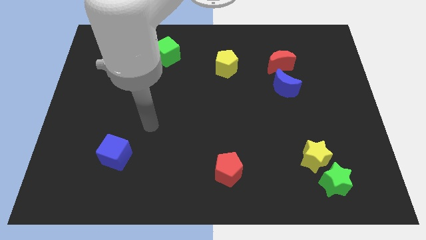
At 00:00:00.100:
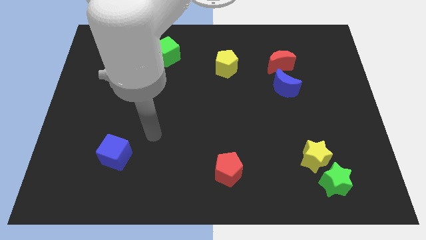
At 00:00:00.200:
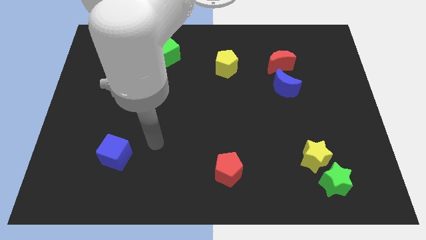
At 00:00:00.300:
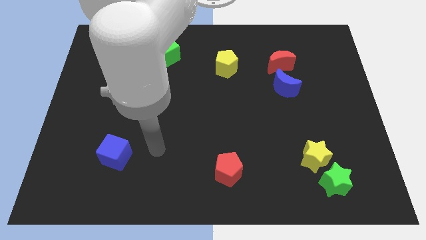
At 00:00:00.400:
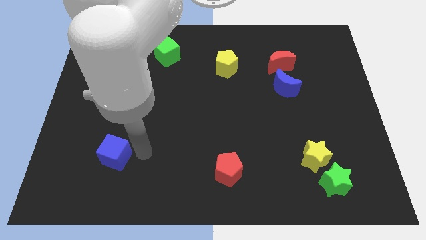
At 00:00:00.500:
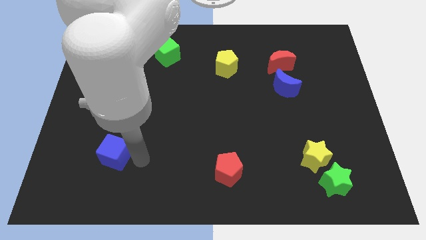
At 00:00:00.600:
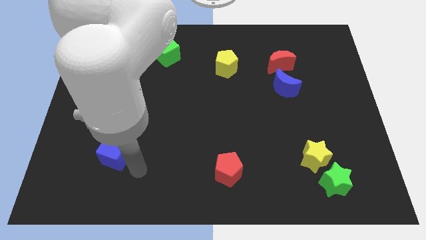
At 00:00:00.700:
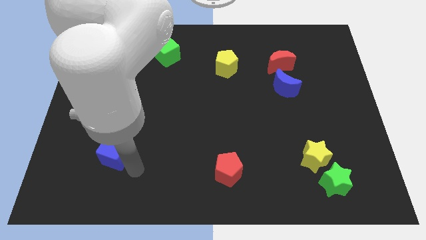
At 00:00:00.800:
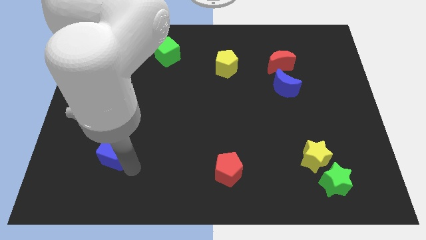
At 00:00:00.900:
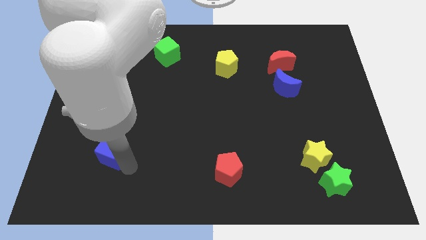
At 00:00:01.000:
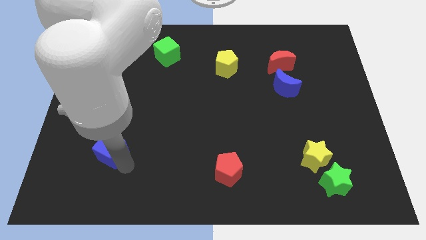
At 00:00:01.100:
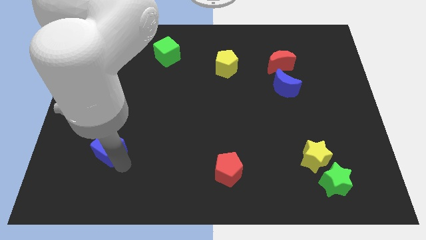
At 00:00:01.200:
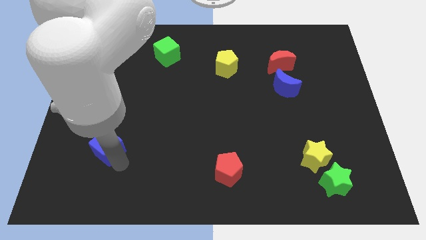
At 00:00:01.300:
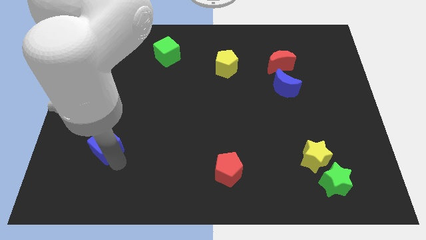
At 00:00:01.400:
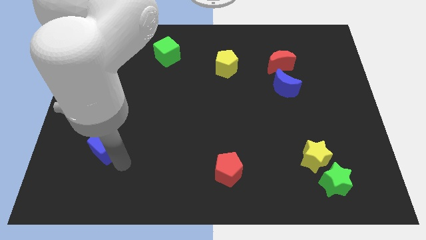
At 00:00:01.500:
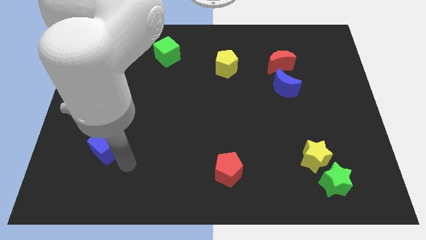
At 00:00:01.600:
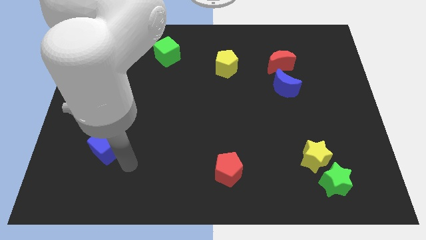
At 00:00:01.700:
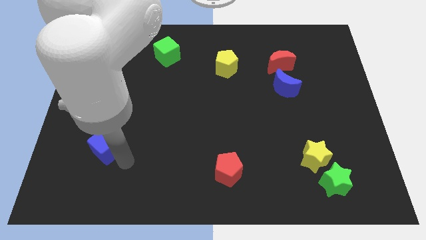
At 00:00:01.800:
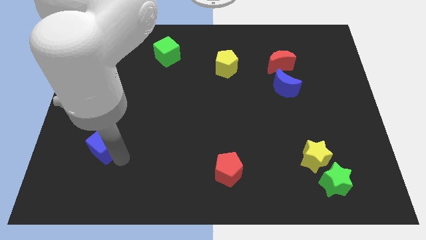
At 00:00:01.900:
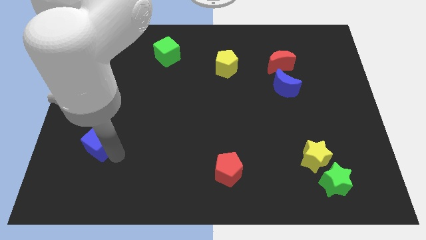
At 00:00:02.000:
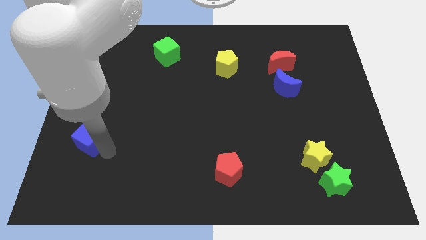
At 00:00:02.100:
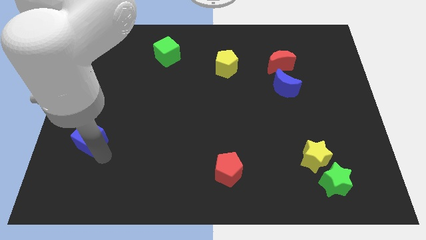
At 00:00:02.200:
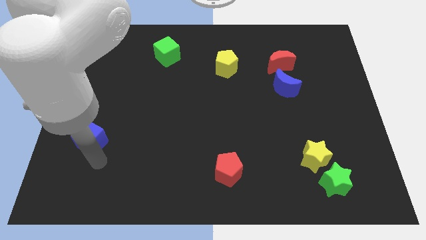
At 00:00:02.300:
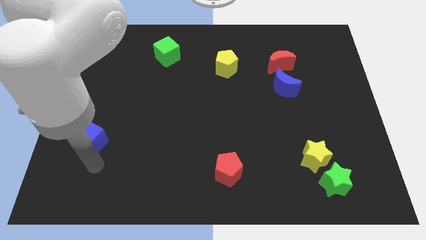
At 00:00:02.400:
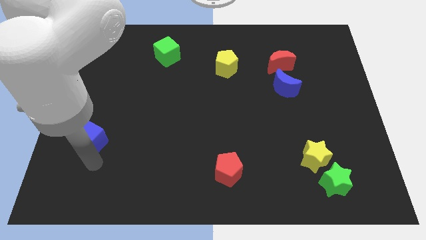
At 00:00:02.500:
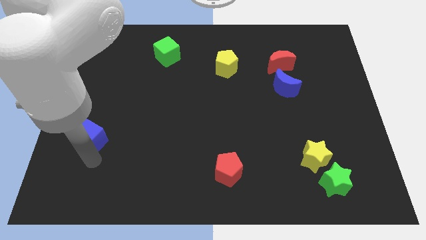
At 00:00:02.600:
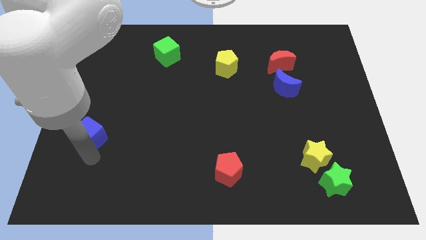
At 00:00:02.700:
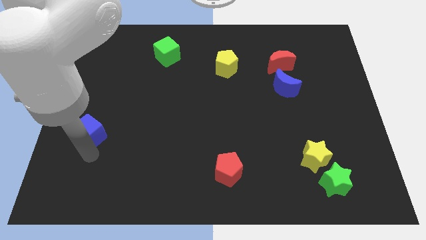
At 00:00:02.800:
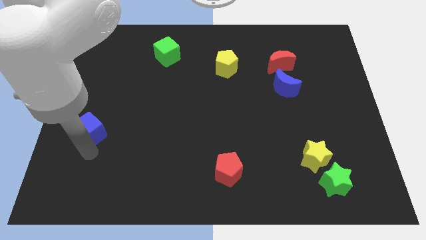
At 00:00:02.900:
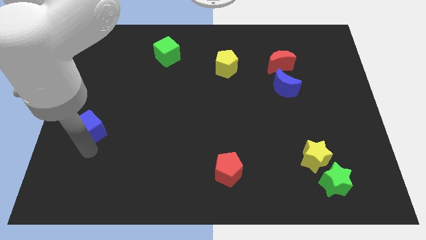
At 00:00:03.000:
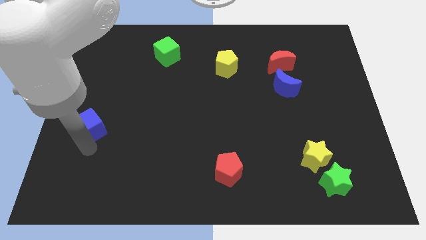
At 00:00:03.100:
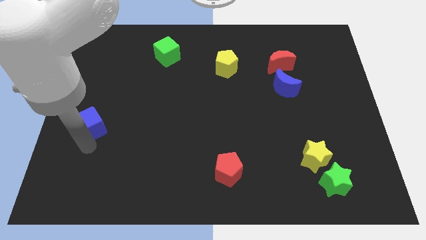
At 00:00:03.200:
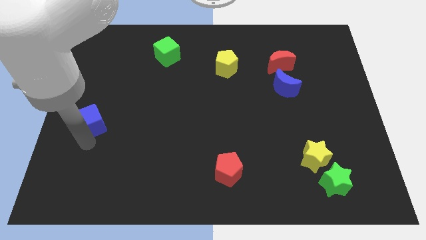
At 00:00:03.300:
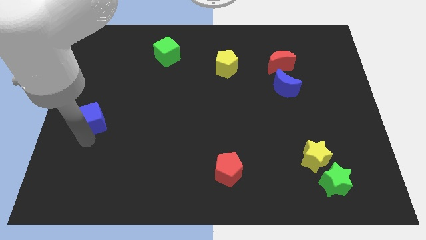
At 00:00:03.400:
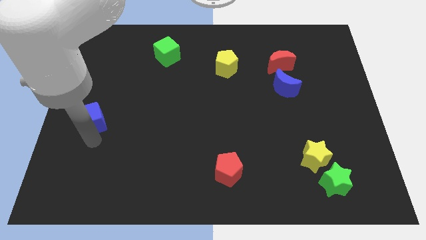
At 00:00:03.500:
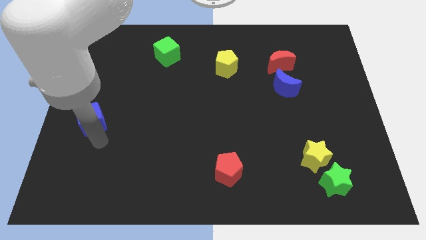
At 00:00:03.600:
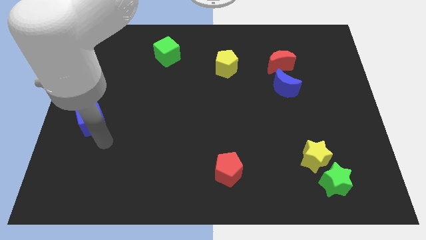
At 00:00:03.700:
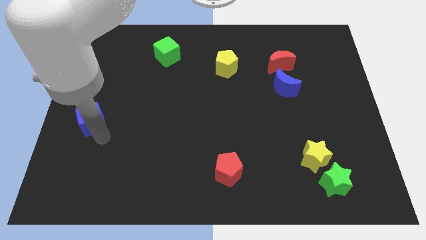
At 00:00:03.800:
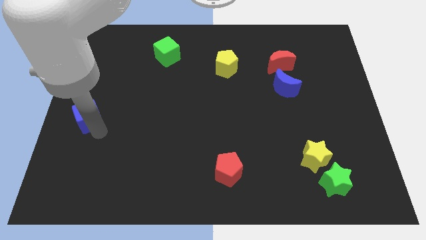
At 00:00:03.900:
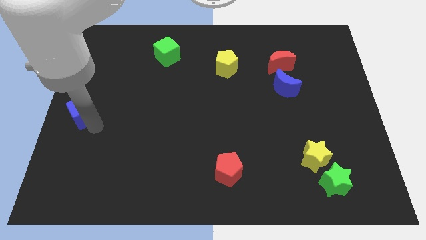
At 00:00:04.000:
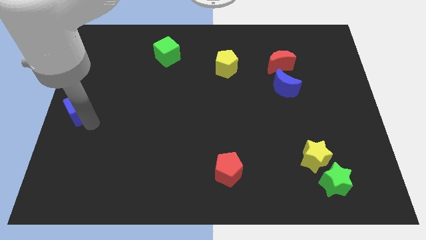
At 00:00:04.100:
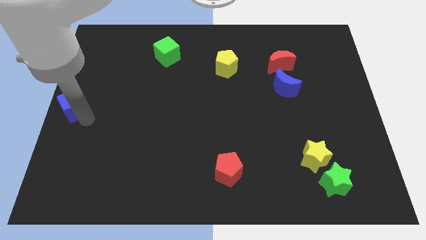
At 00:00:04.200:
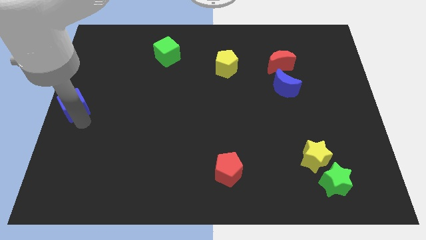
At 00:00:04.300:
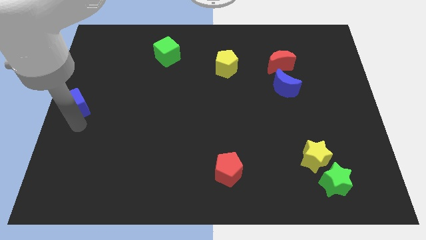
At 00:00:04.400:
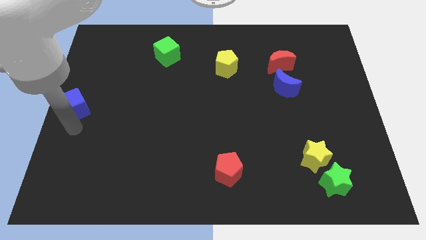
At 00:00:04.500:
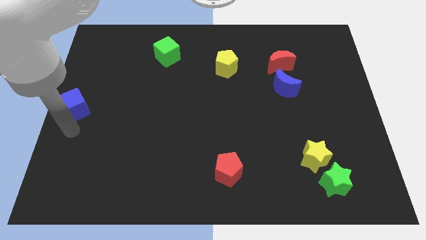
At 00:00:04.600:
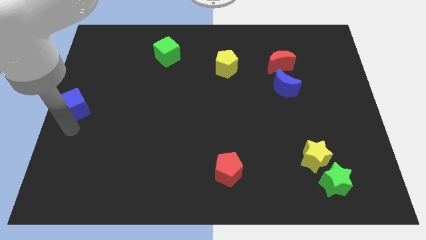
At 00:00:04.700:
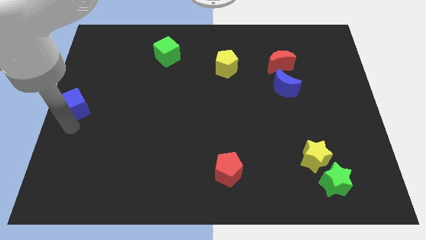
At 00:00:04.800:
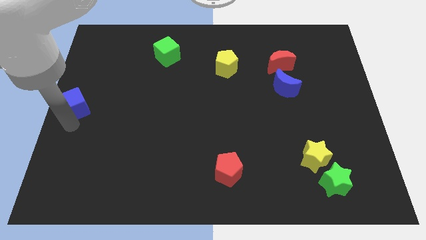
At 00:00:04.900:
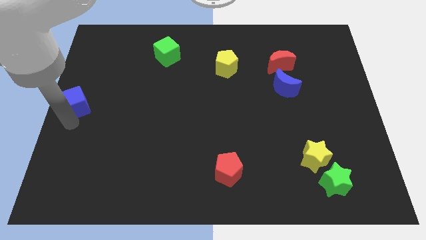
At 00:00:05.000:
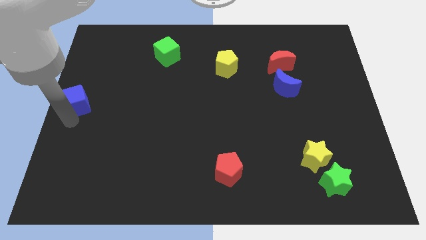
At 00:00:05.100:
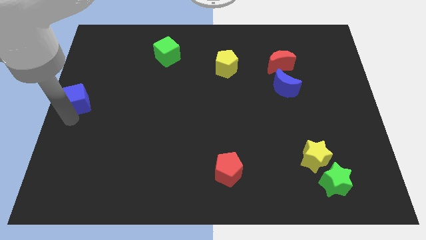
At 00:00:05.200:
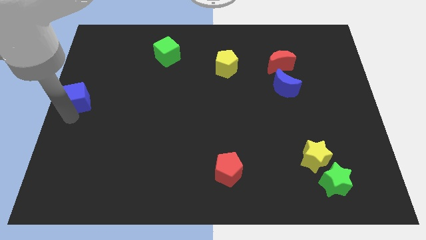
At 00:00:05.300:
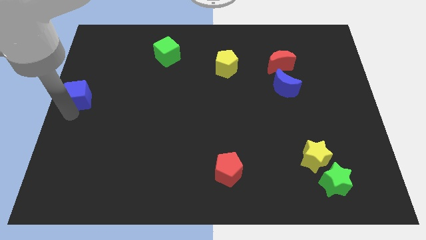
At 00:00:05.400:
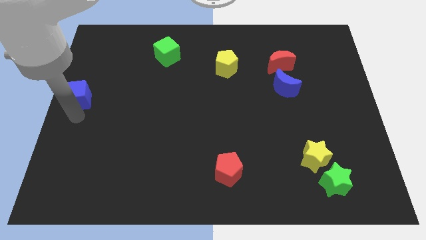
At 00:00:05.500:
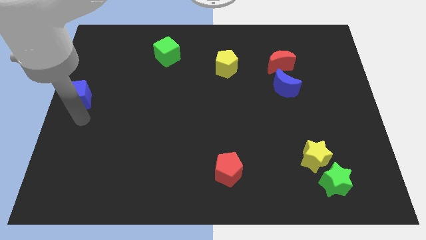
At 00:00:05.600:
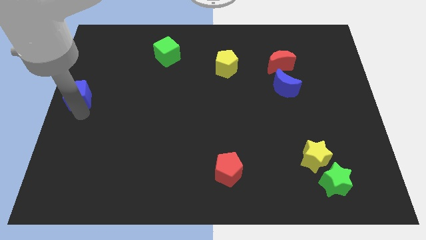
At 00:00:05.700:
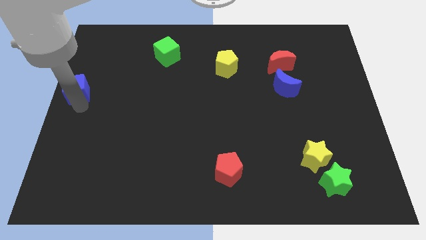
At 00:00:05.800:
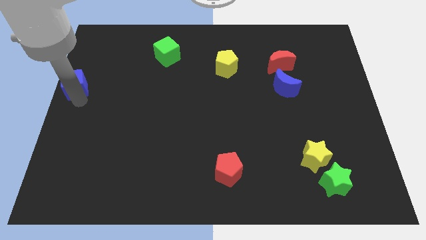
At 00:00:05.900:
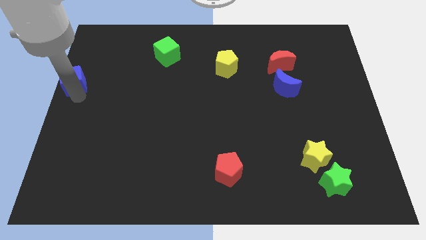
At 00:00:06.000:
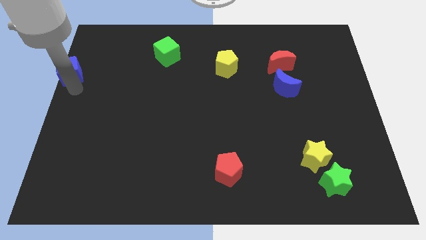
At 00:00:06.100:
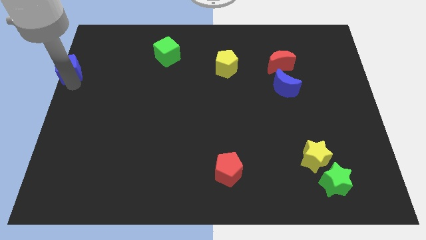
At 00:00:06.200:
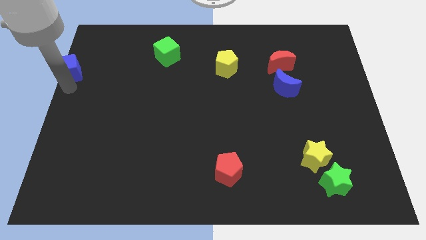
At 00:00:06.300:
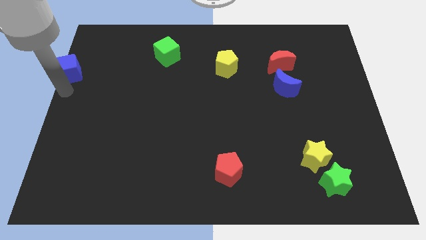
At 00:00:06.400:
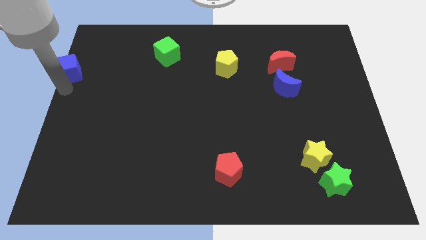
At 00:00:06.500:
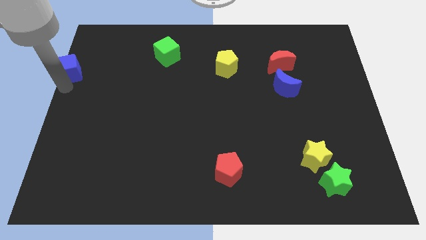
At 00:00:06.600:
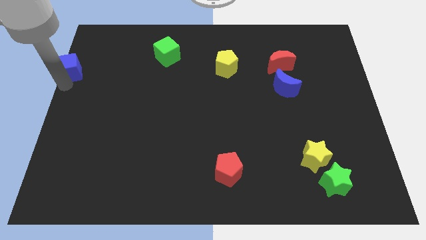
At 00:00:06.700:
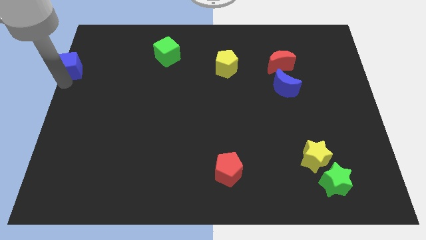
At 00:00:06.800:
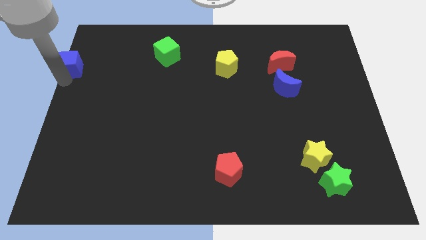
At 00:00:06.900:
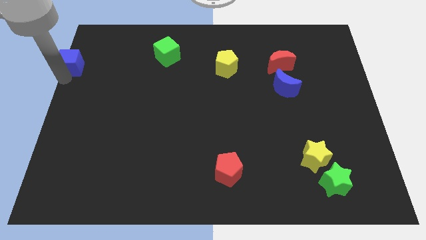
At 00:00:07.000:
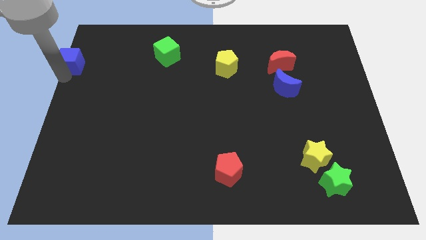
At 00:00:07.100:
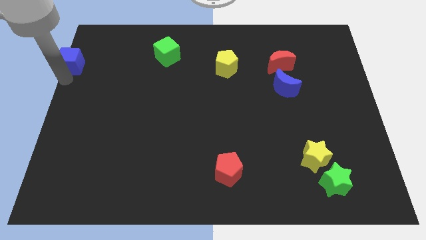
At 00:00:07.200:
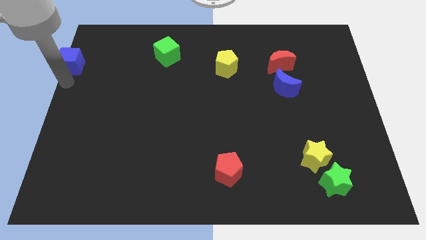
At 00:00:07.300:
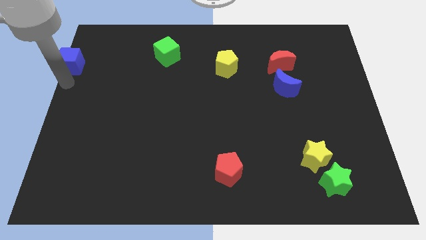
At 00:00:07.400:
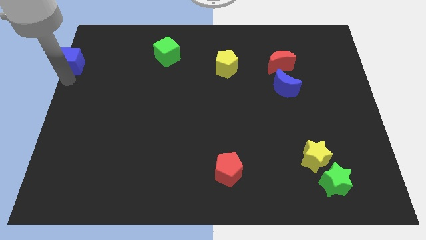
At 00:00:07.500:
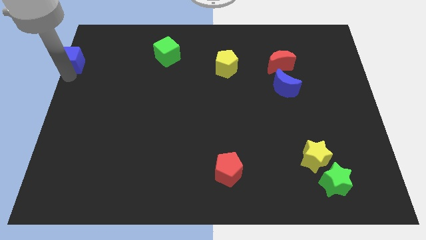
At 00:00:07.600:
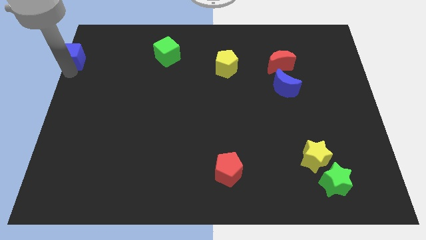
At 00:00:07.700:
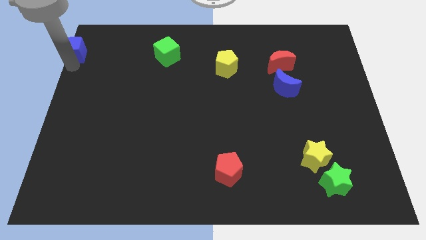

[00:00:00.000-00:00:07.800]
put the blue cube to the top left
